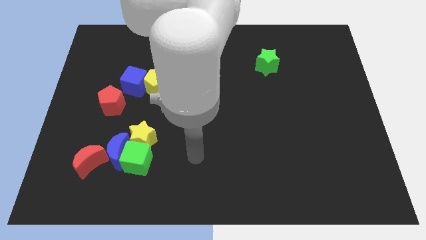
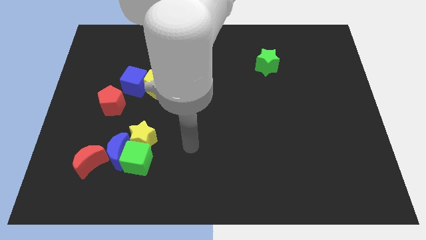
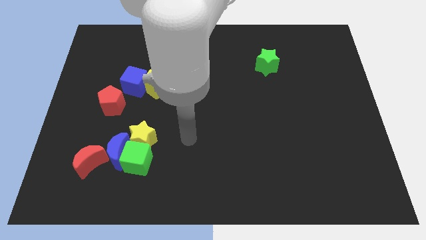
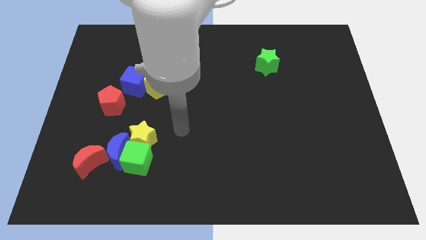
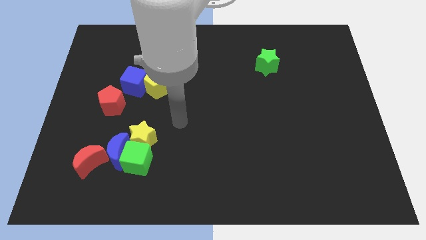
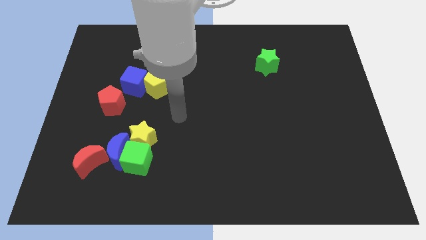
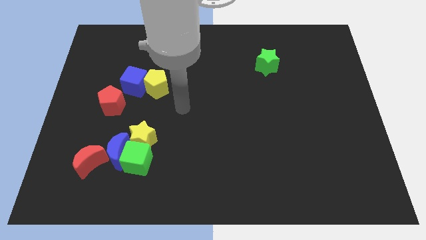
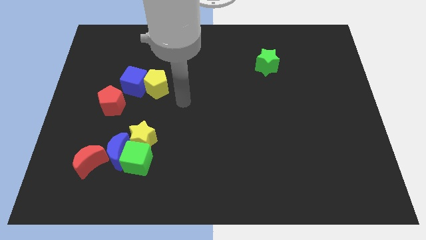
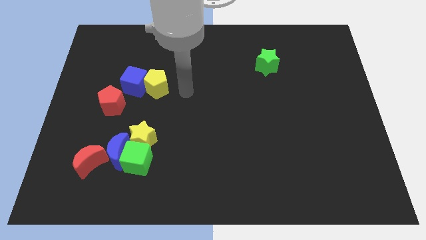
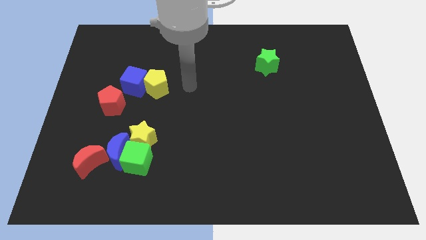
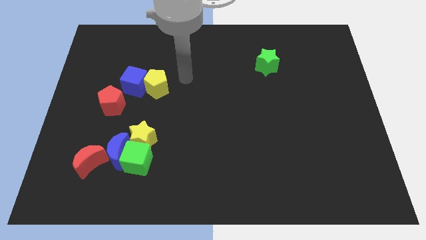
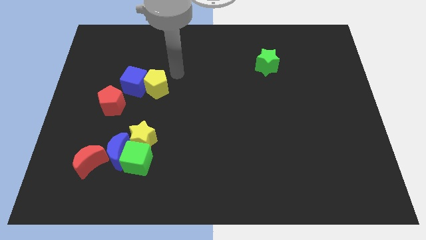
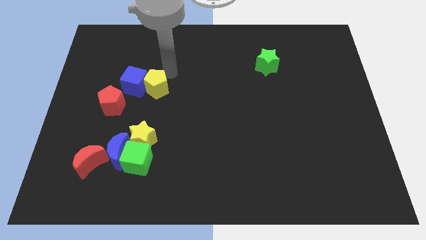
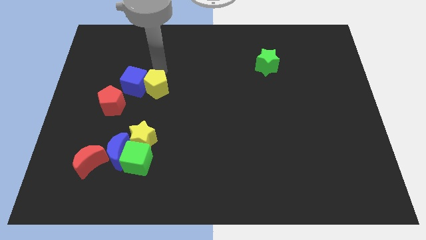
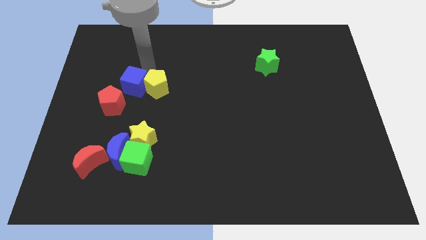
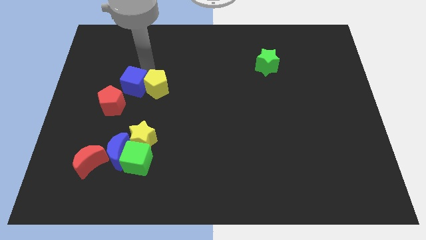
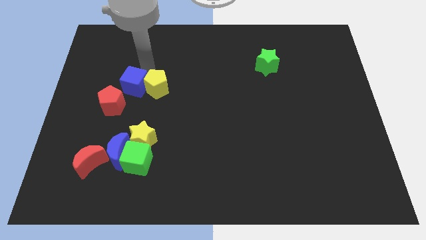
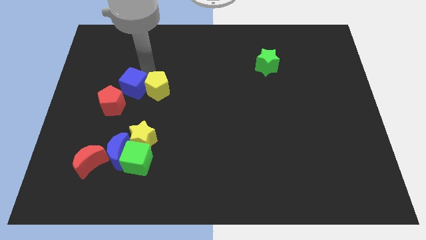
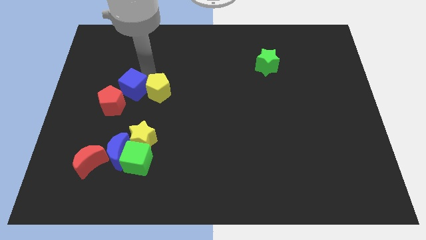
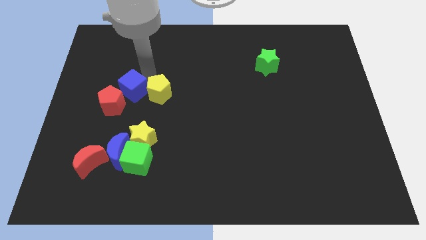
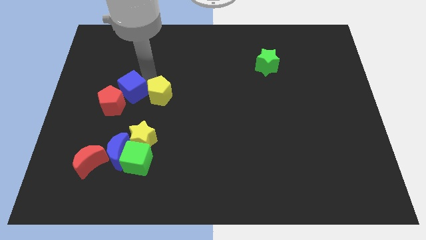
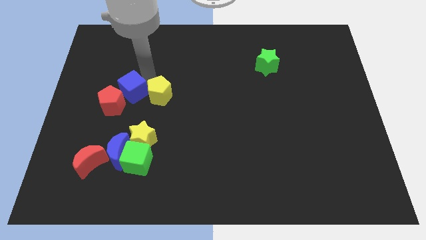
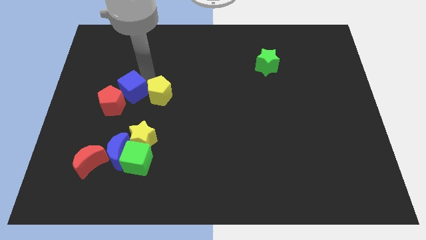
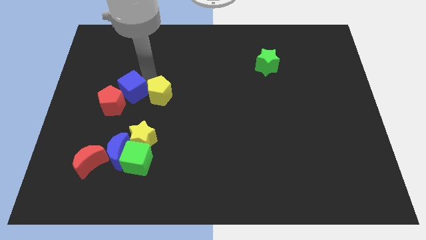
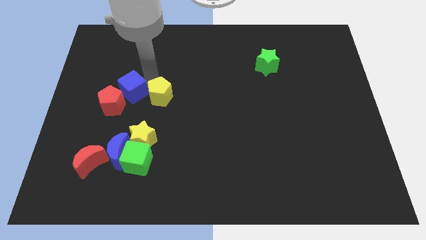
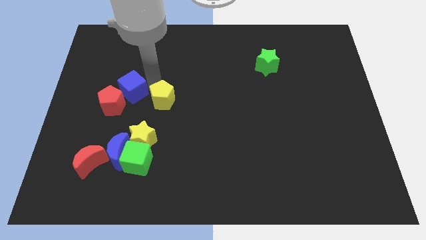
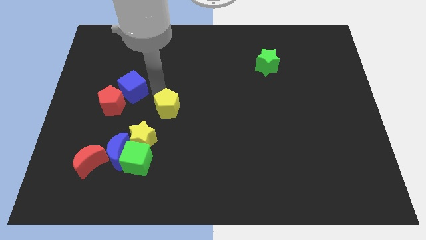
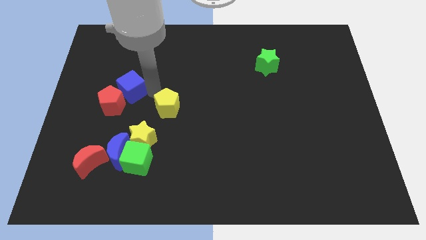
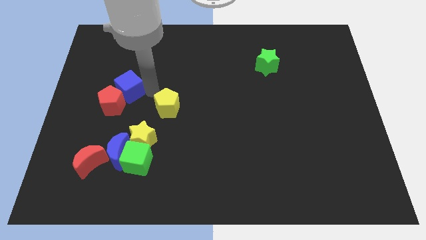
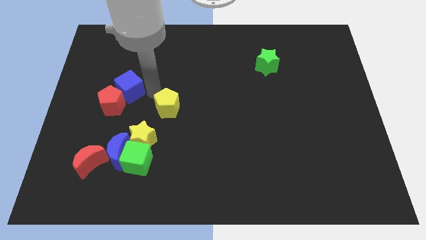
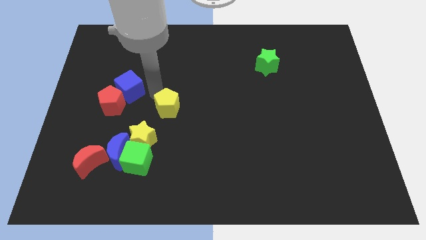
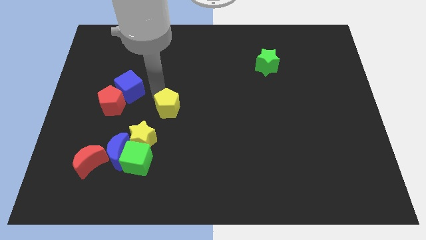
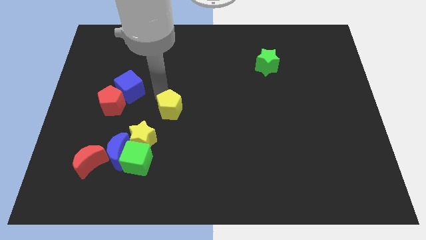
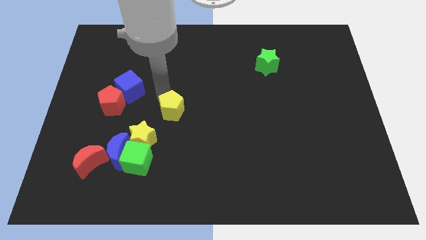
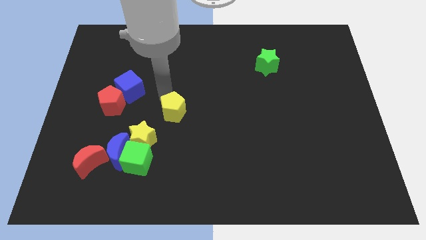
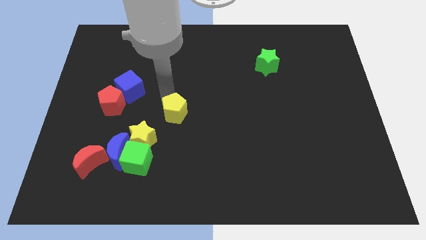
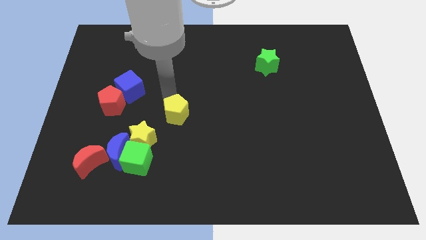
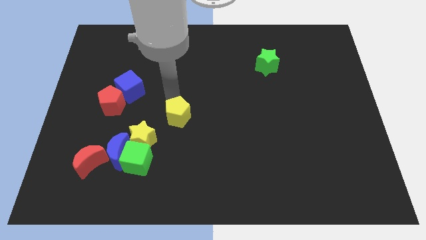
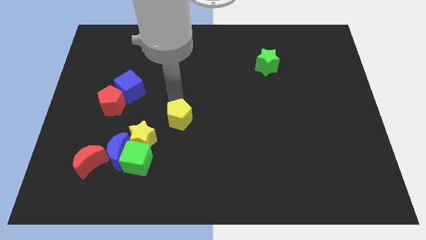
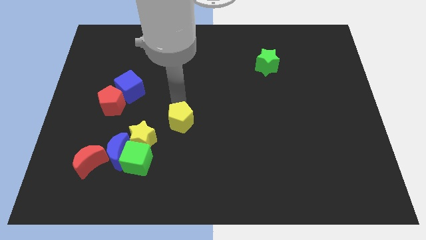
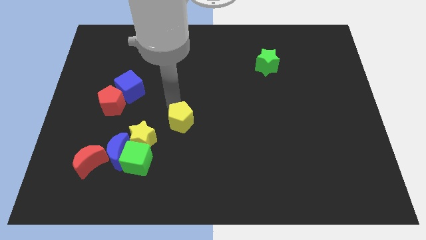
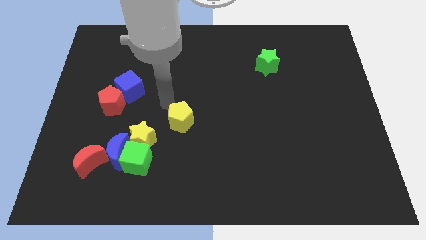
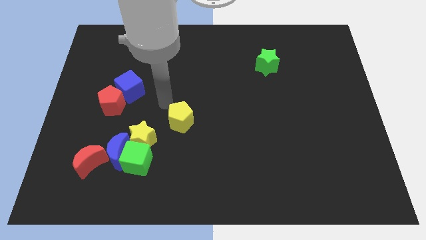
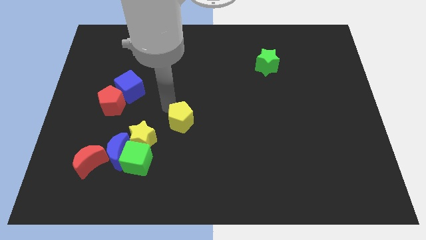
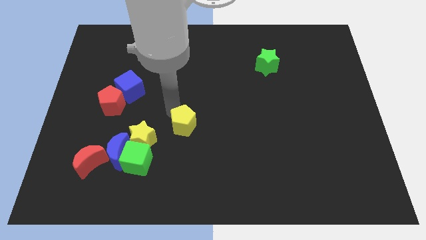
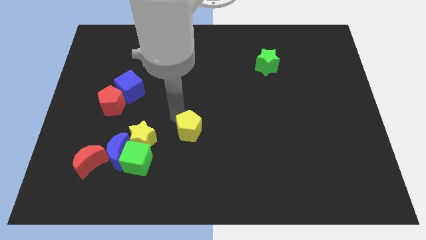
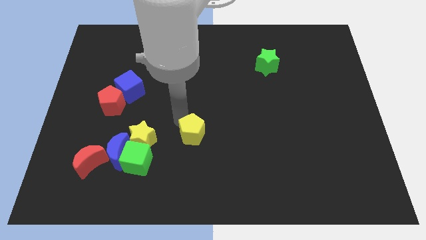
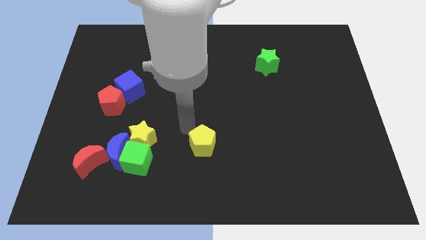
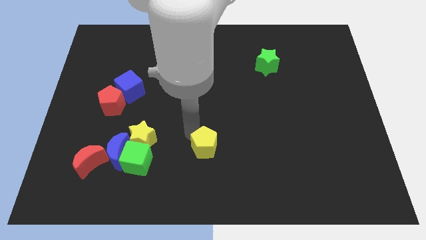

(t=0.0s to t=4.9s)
slide the yellow pentagon down and then to the right

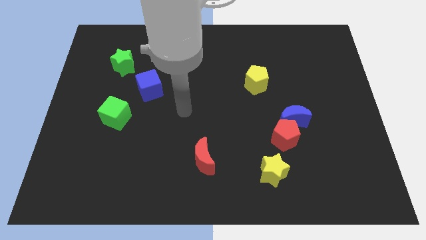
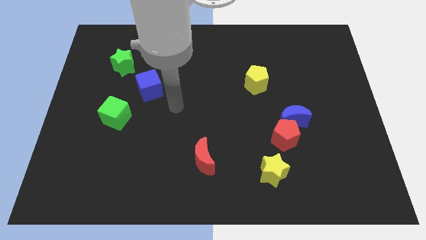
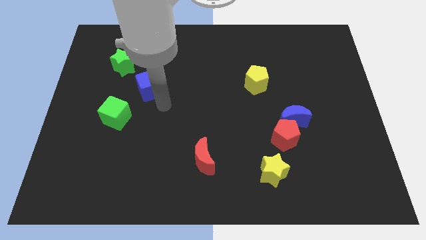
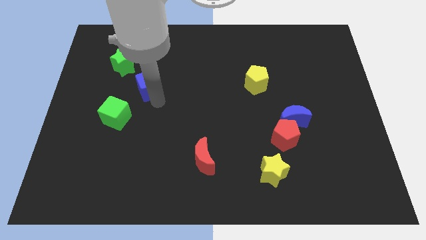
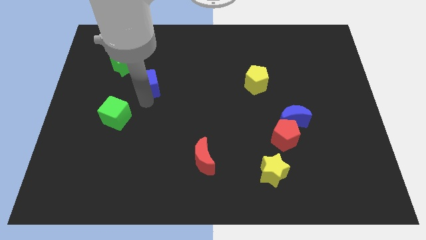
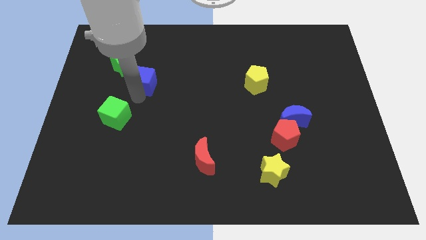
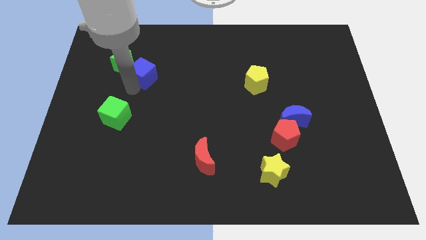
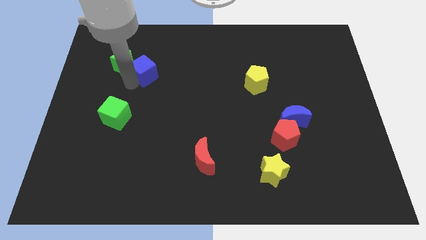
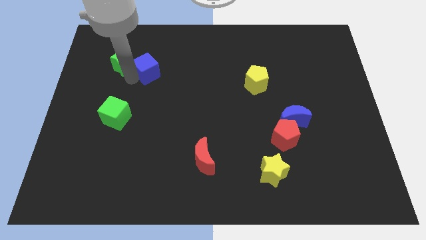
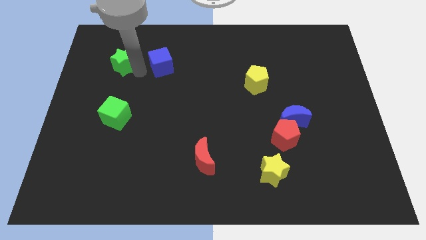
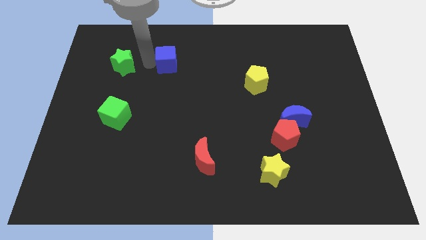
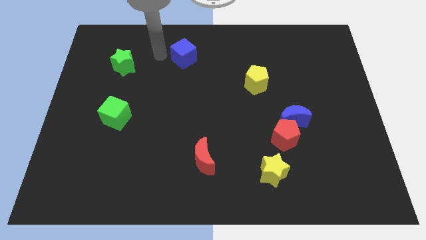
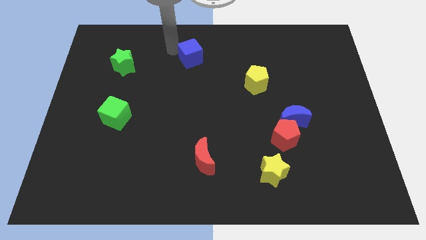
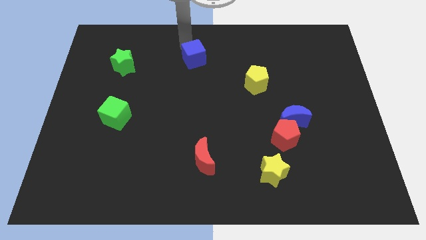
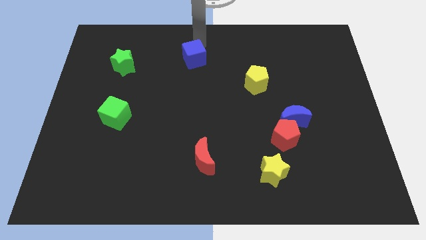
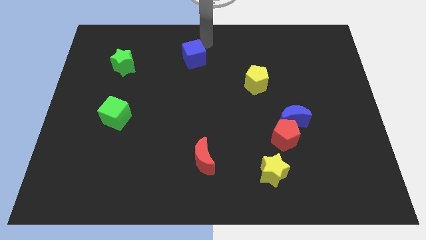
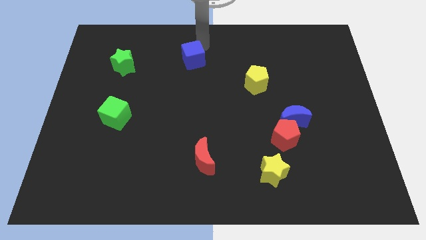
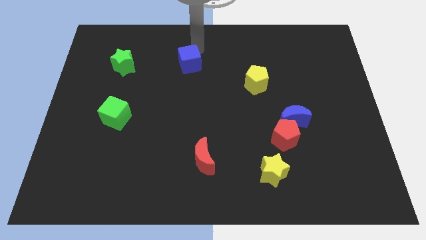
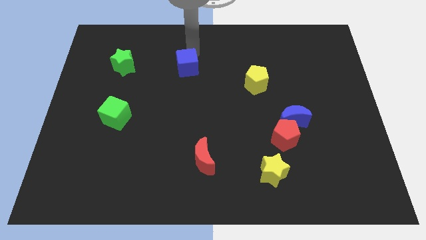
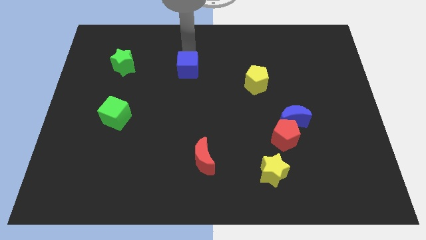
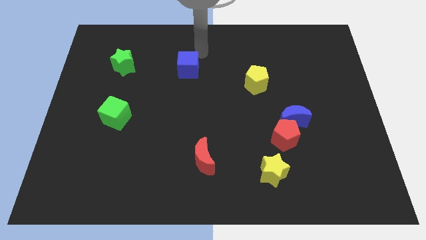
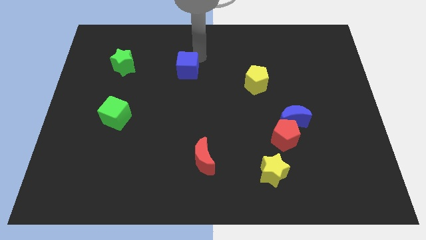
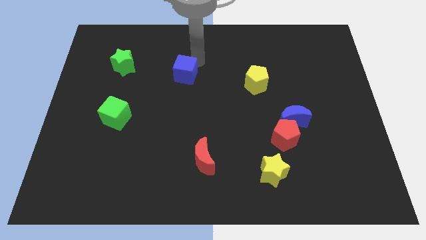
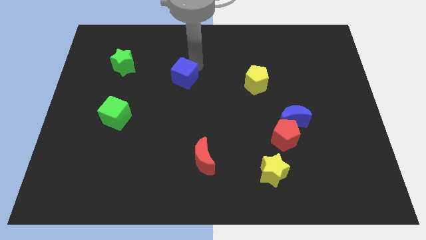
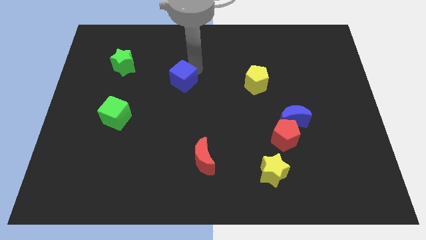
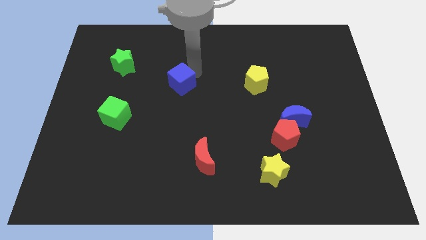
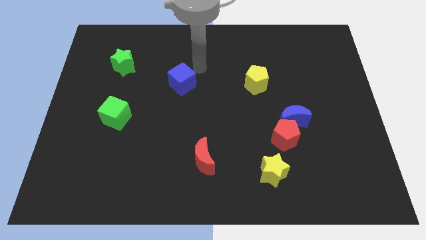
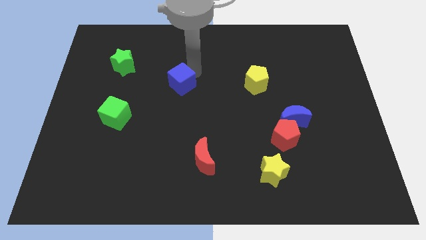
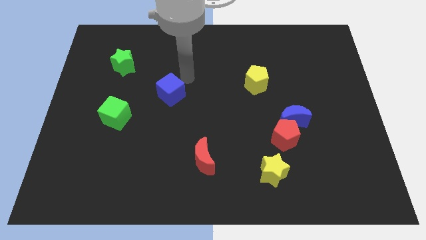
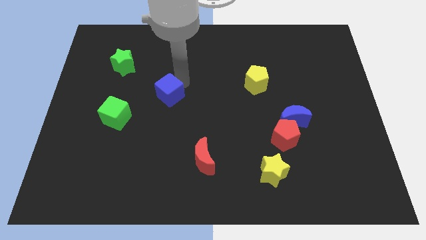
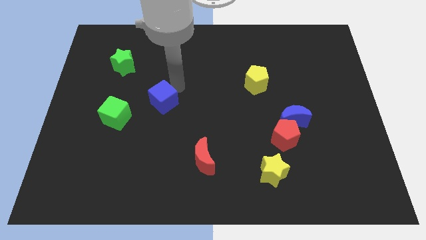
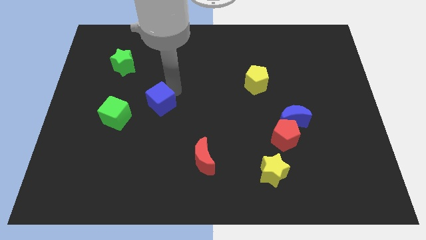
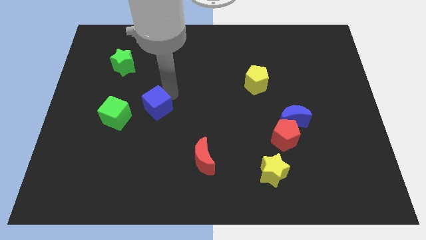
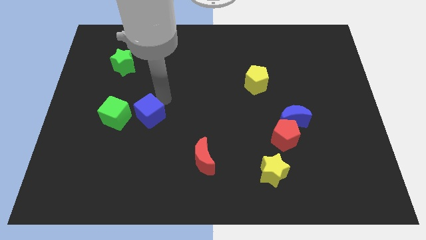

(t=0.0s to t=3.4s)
slightly push the blue cube down
